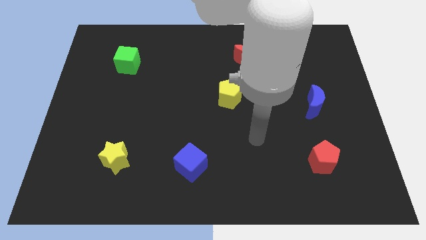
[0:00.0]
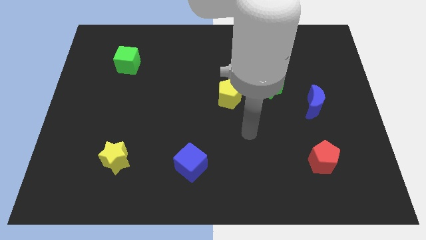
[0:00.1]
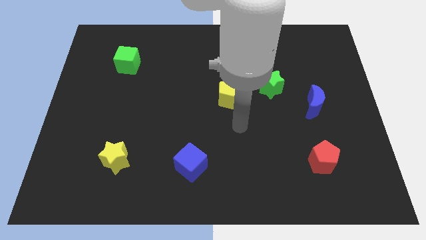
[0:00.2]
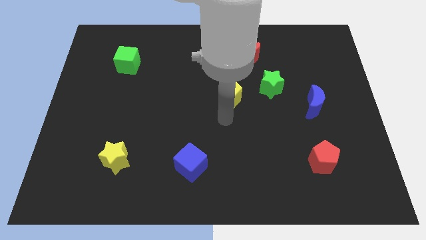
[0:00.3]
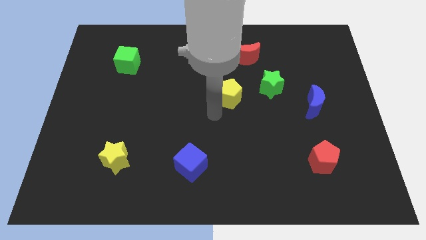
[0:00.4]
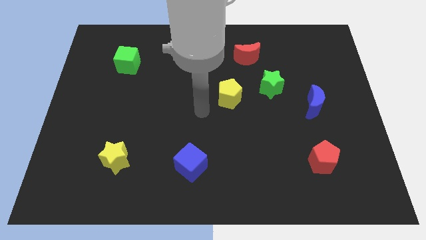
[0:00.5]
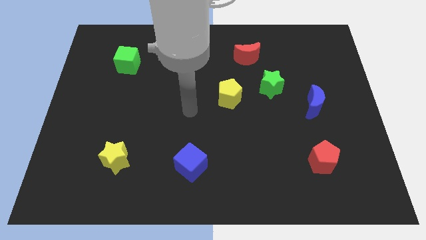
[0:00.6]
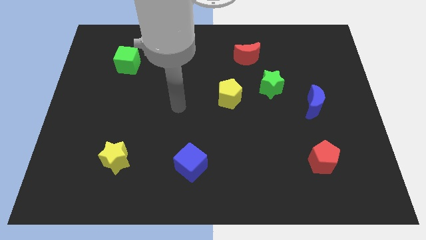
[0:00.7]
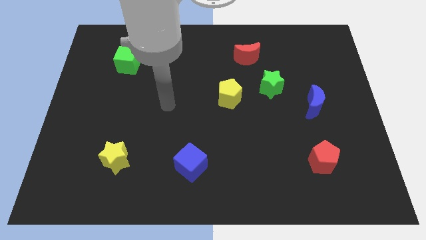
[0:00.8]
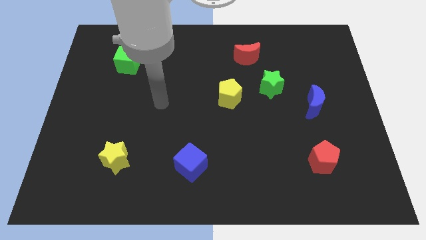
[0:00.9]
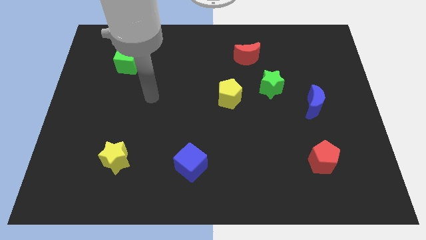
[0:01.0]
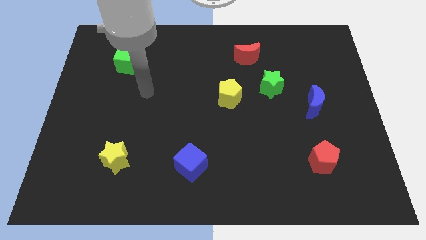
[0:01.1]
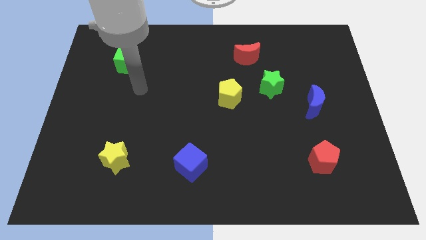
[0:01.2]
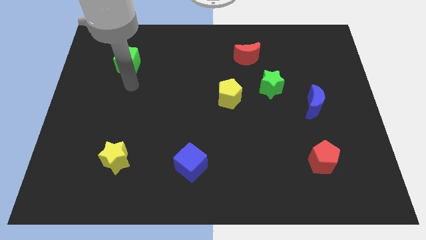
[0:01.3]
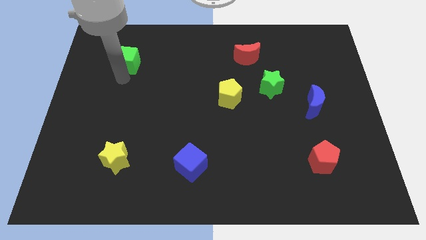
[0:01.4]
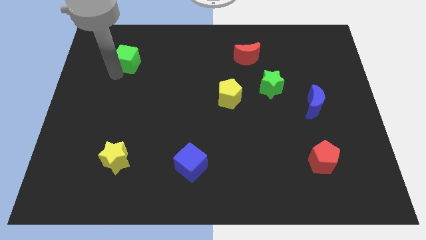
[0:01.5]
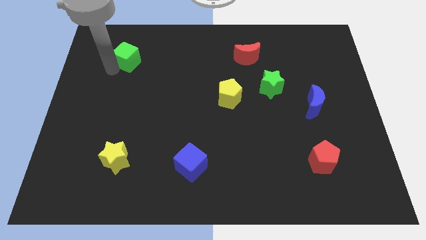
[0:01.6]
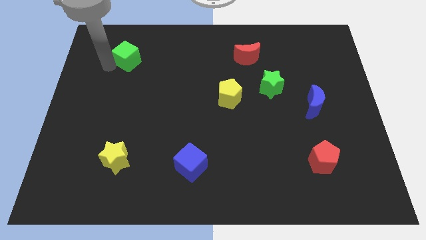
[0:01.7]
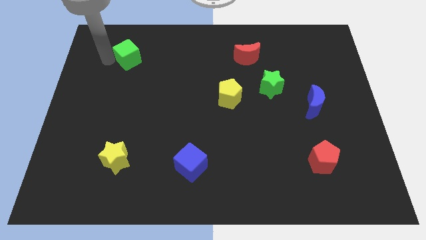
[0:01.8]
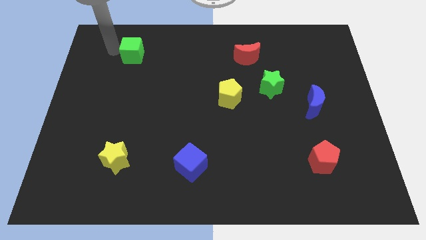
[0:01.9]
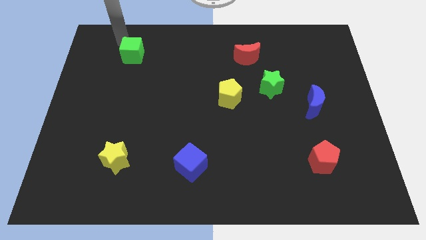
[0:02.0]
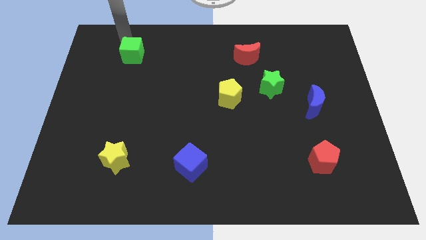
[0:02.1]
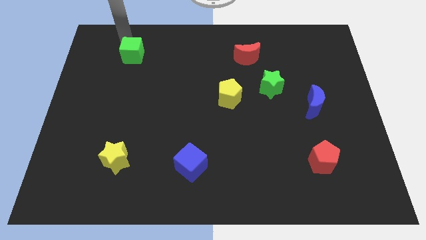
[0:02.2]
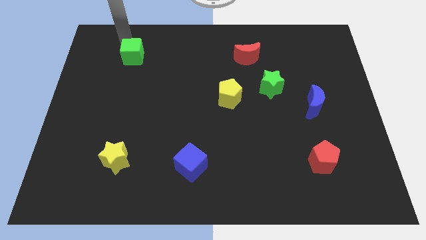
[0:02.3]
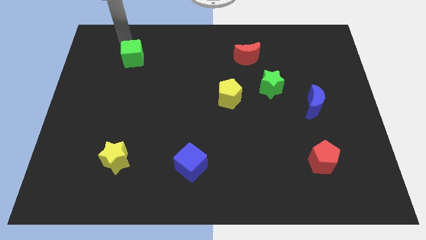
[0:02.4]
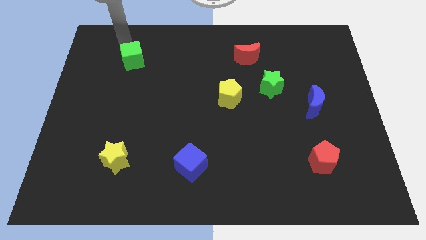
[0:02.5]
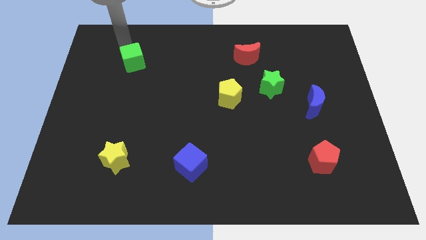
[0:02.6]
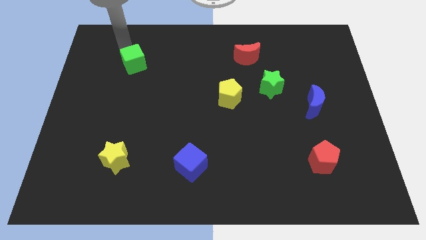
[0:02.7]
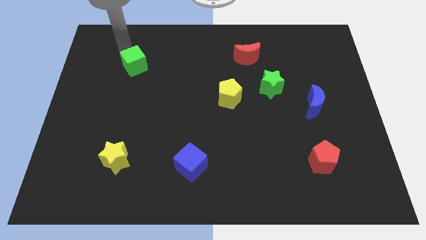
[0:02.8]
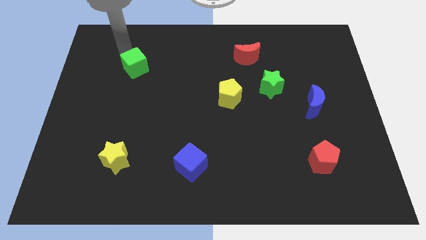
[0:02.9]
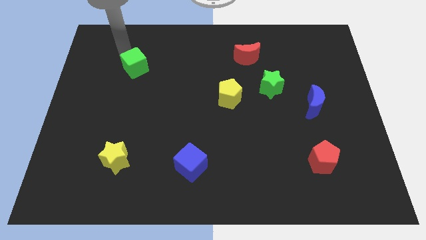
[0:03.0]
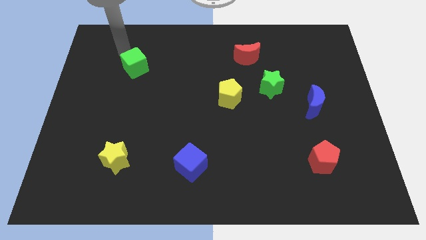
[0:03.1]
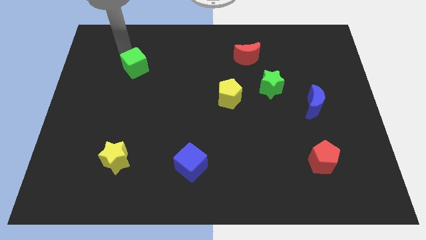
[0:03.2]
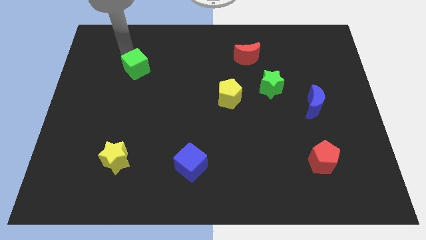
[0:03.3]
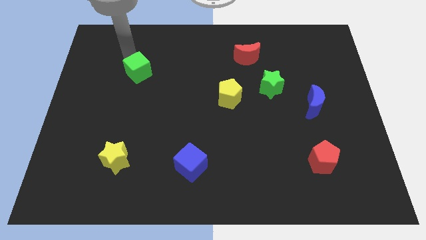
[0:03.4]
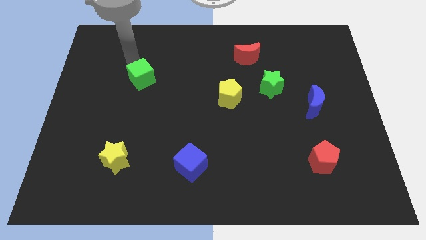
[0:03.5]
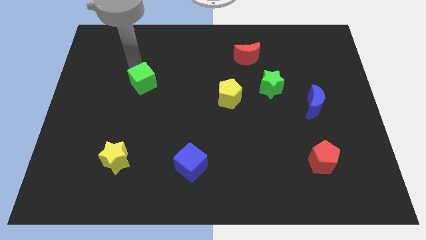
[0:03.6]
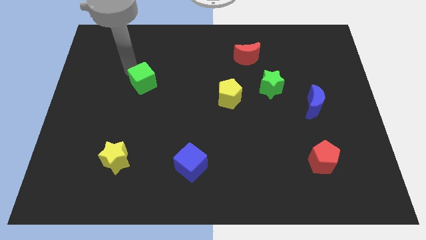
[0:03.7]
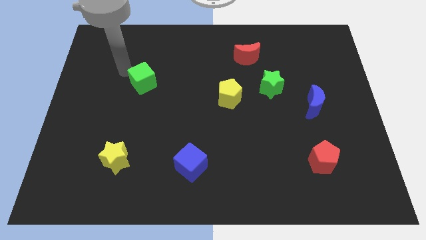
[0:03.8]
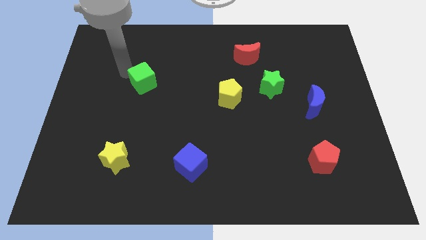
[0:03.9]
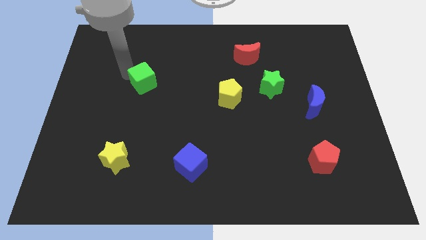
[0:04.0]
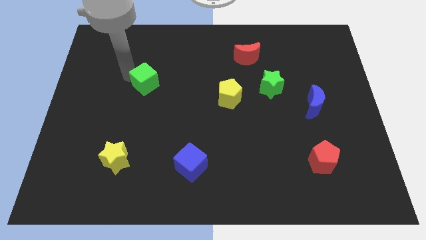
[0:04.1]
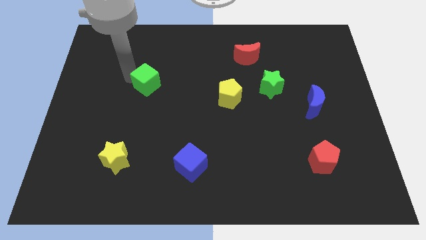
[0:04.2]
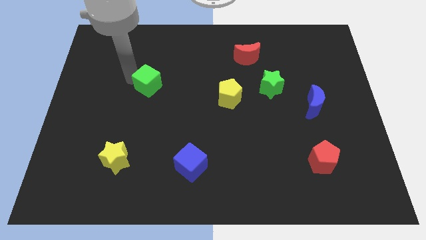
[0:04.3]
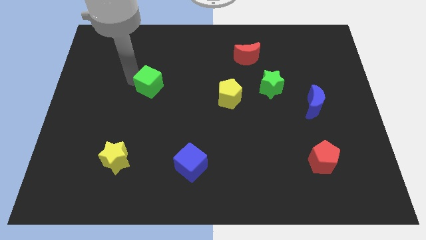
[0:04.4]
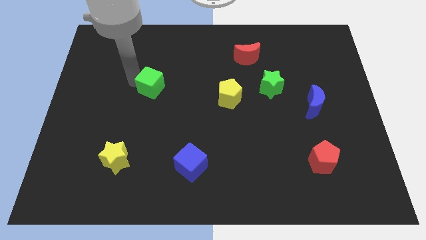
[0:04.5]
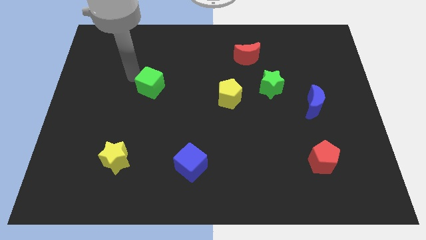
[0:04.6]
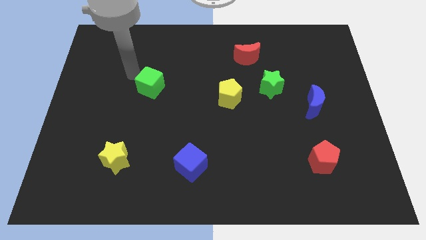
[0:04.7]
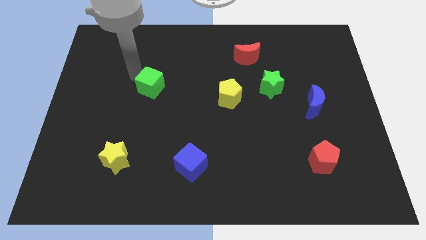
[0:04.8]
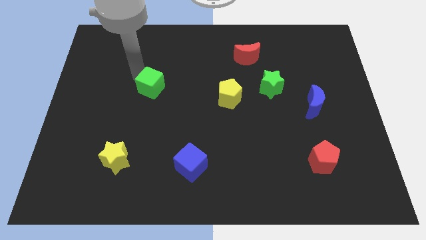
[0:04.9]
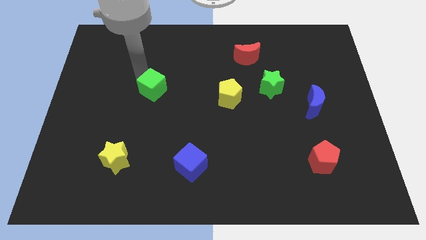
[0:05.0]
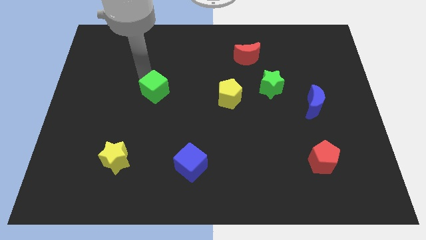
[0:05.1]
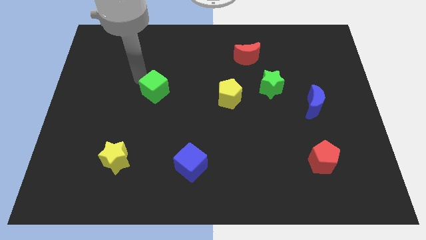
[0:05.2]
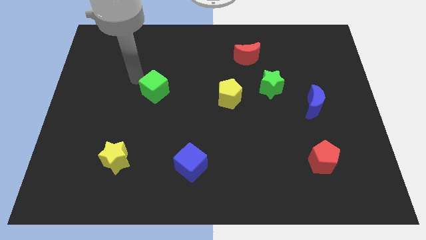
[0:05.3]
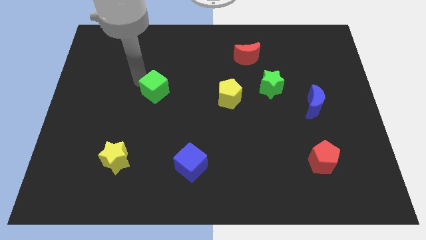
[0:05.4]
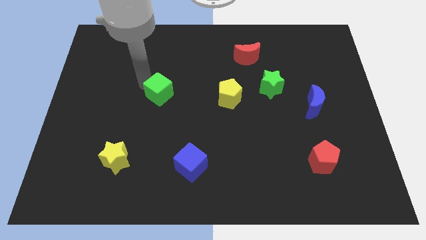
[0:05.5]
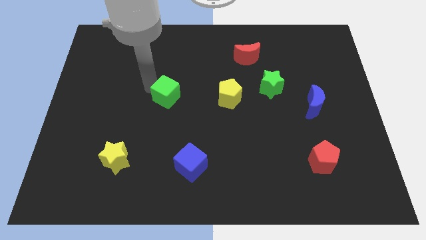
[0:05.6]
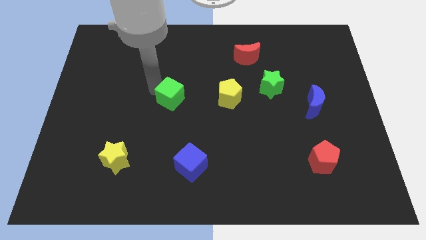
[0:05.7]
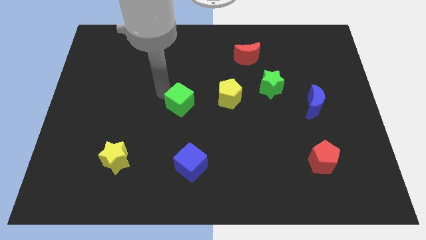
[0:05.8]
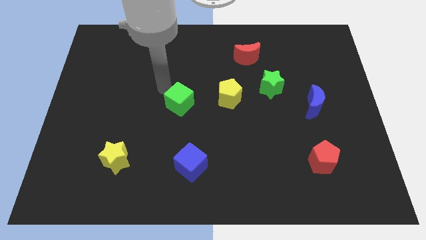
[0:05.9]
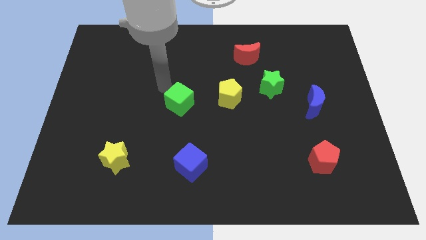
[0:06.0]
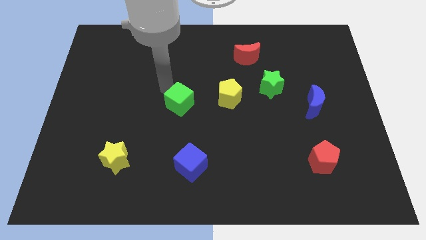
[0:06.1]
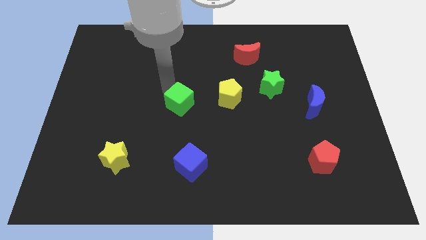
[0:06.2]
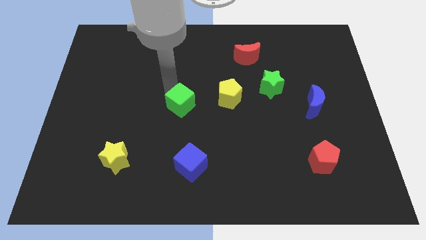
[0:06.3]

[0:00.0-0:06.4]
push the green cube down and to the right diagonally

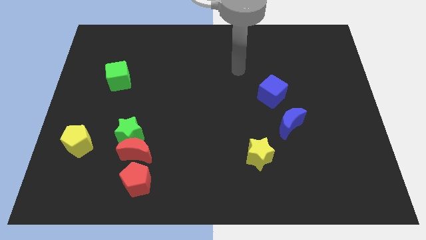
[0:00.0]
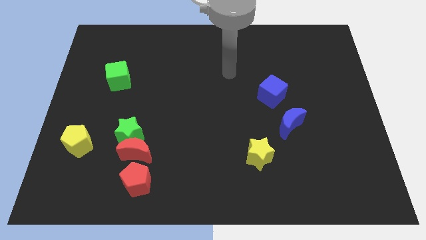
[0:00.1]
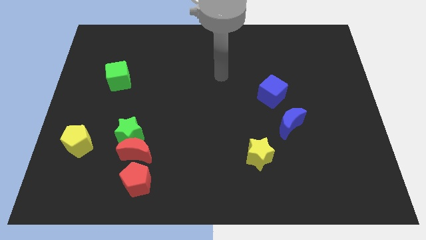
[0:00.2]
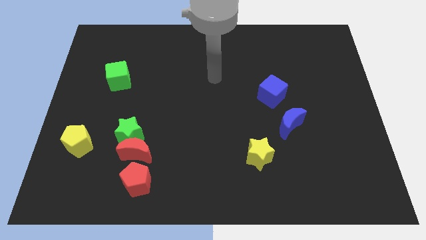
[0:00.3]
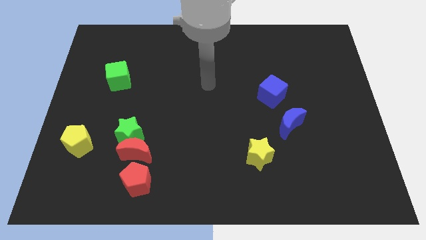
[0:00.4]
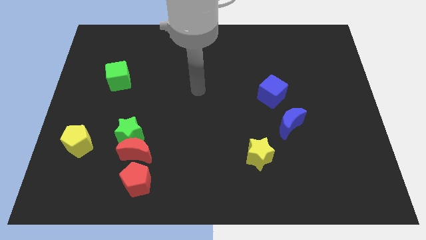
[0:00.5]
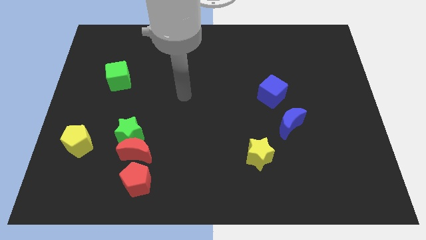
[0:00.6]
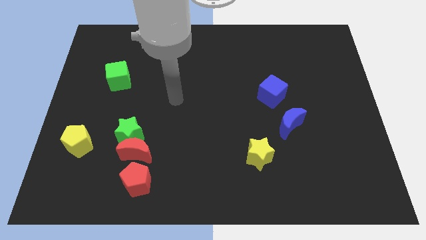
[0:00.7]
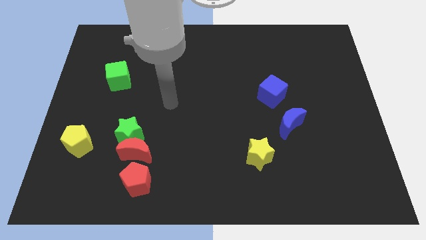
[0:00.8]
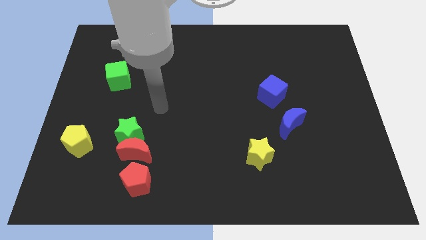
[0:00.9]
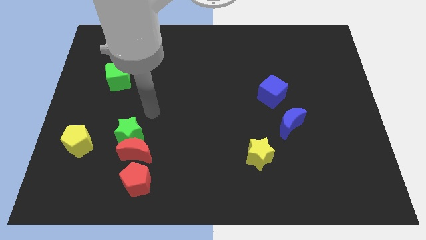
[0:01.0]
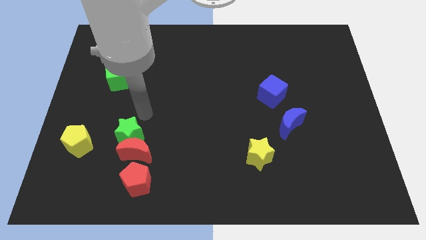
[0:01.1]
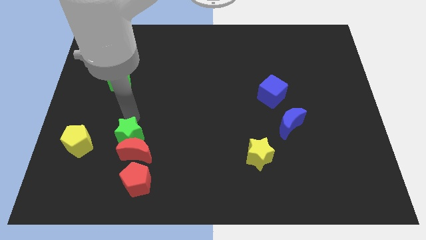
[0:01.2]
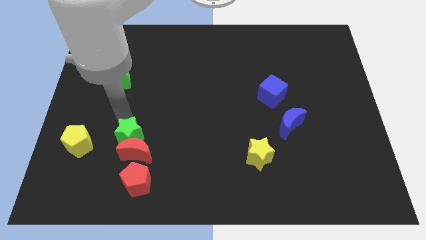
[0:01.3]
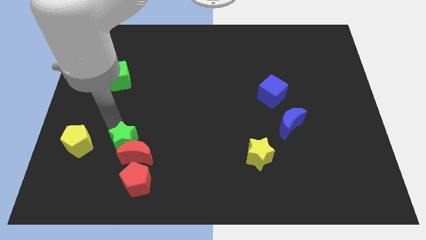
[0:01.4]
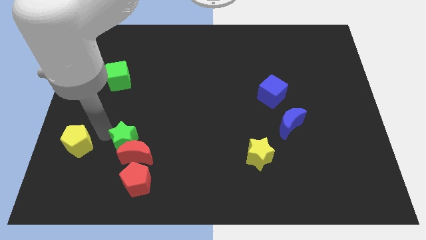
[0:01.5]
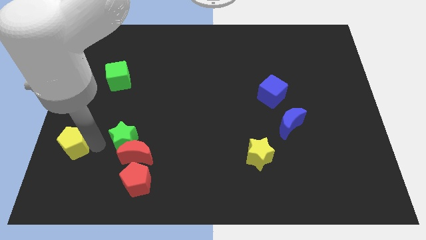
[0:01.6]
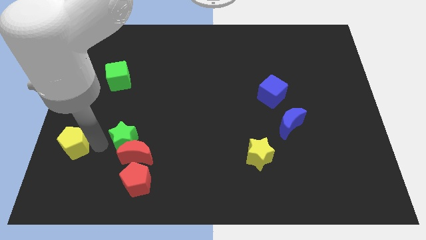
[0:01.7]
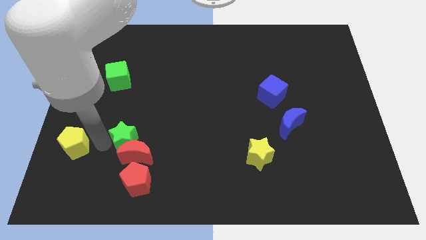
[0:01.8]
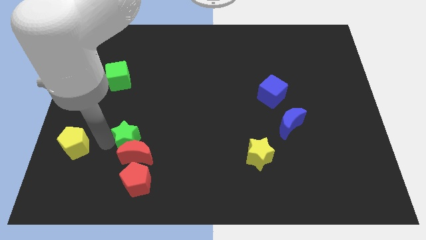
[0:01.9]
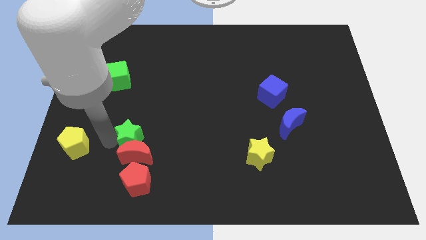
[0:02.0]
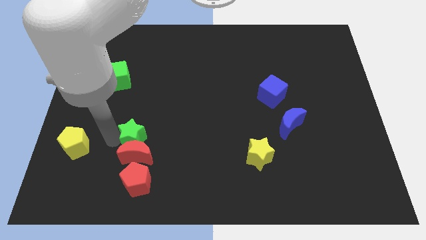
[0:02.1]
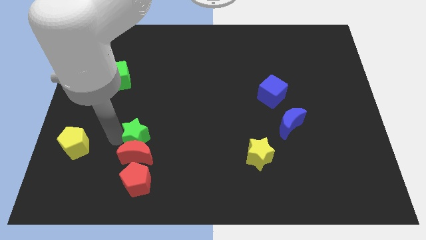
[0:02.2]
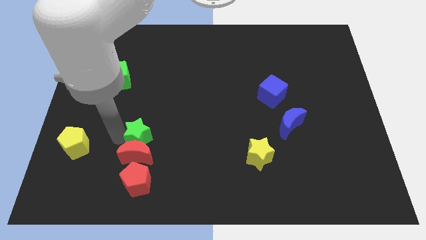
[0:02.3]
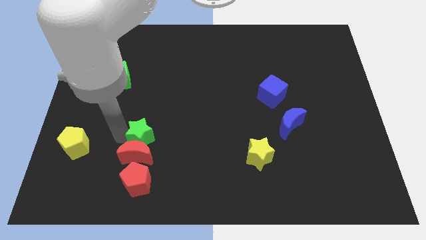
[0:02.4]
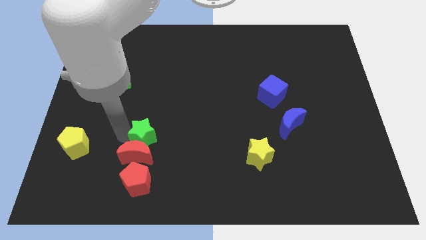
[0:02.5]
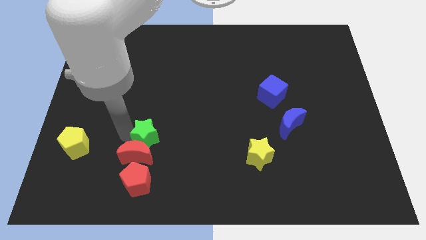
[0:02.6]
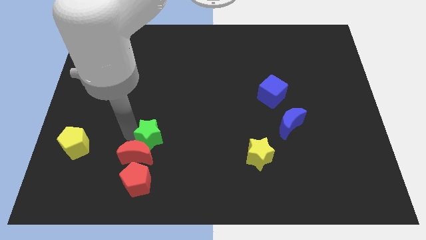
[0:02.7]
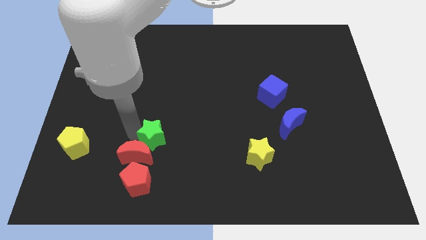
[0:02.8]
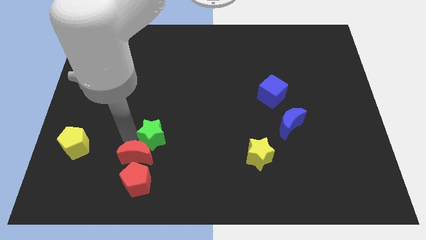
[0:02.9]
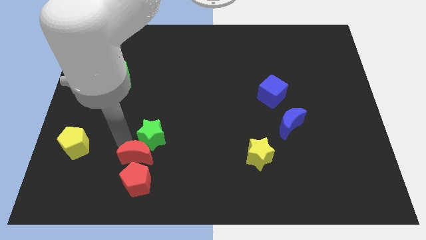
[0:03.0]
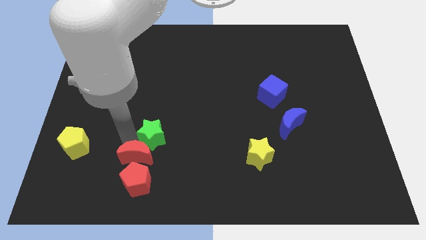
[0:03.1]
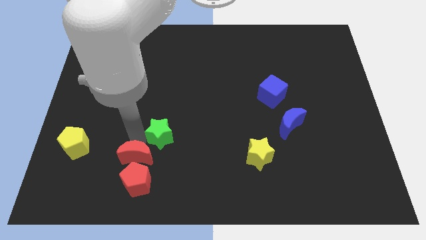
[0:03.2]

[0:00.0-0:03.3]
slightly move the green star to the right
